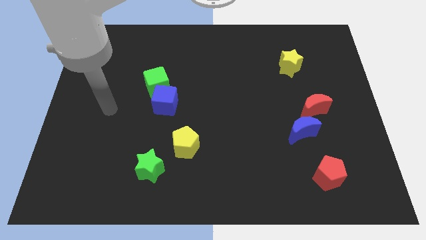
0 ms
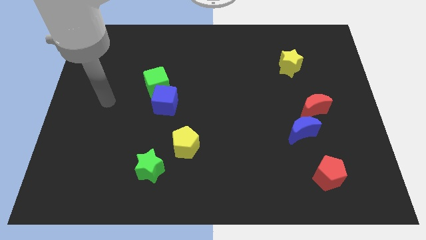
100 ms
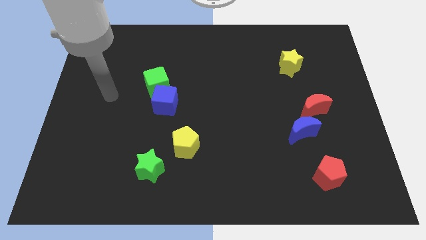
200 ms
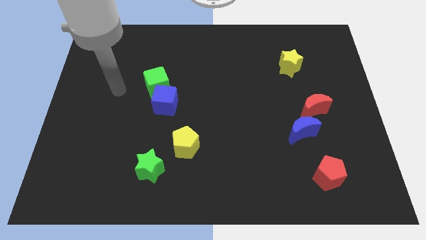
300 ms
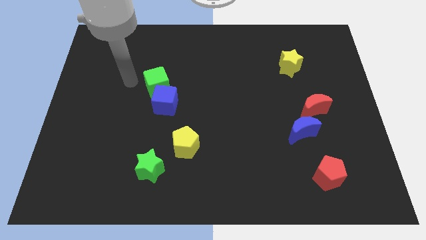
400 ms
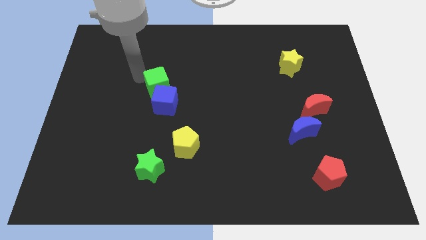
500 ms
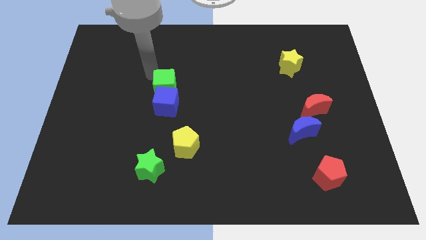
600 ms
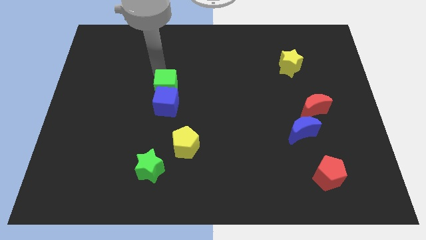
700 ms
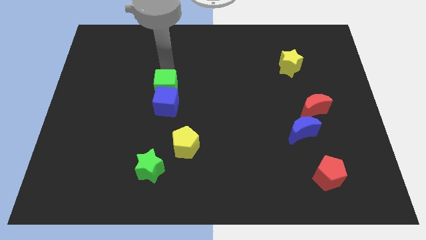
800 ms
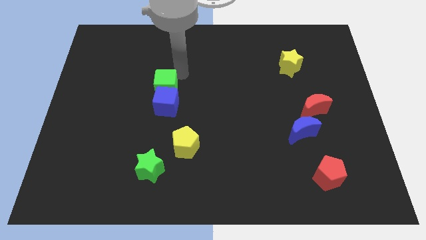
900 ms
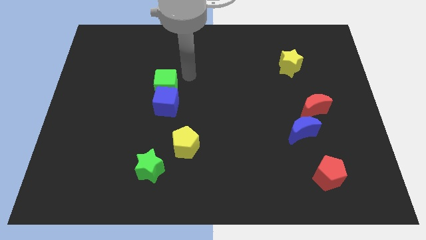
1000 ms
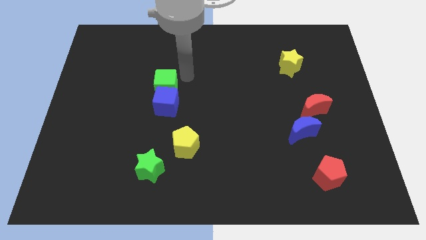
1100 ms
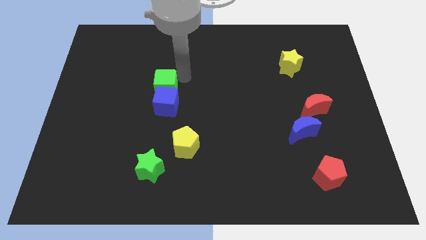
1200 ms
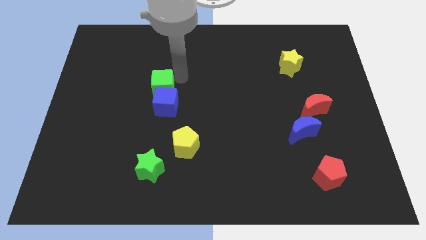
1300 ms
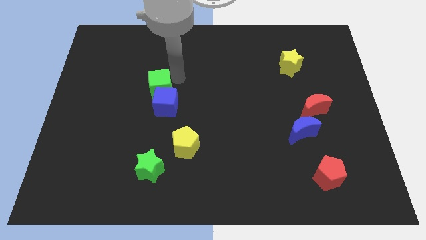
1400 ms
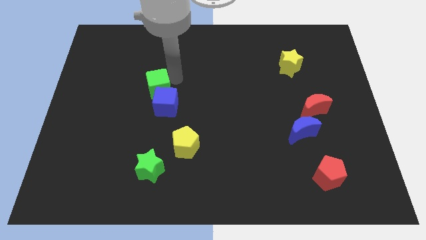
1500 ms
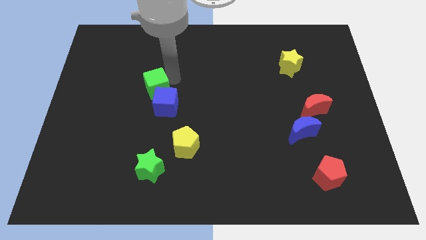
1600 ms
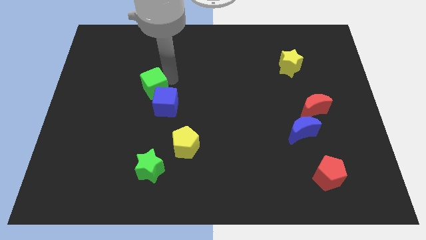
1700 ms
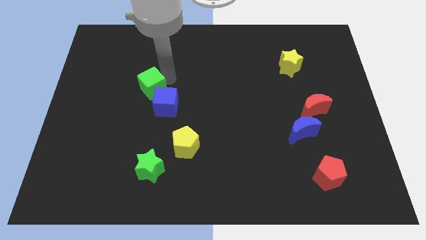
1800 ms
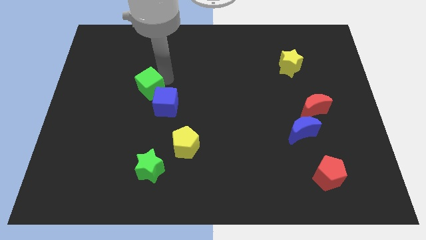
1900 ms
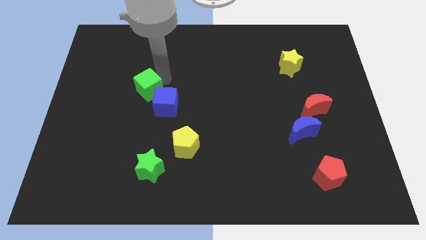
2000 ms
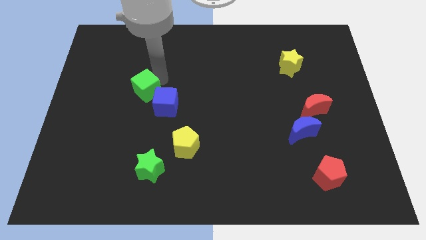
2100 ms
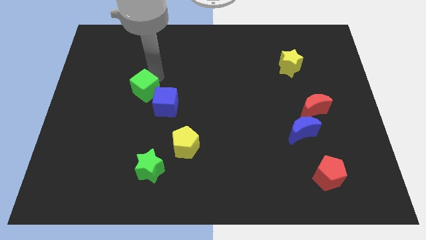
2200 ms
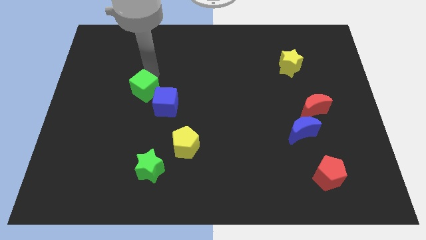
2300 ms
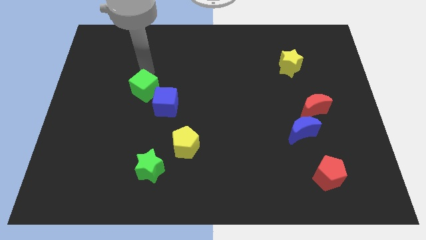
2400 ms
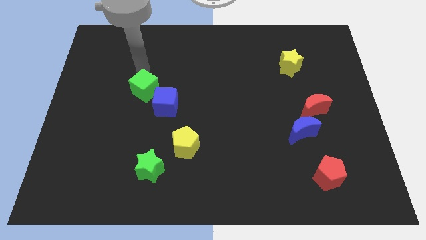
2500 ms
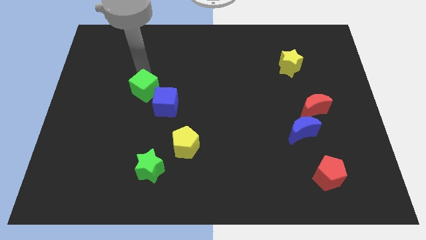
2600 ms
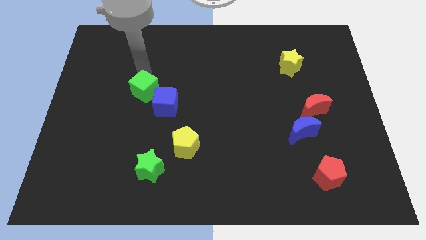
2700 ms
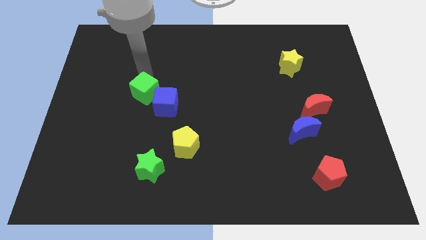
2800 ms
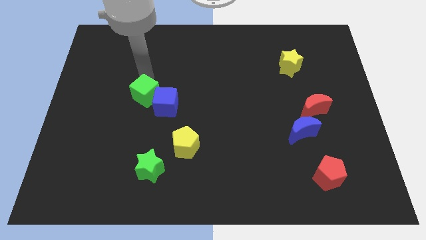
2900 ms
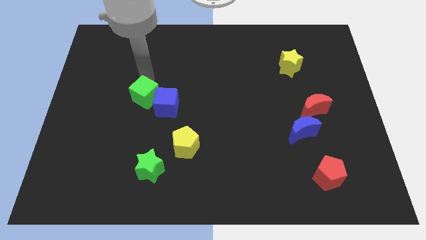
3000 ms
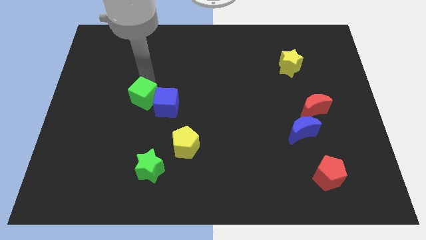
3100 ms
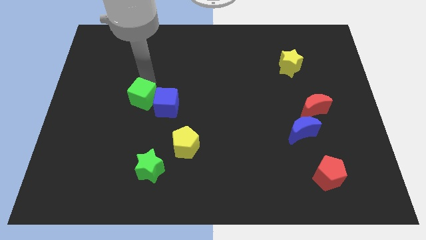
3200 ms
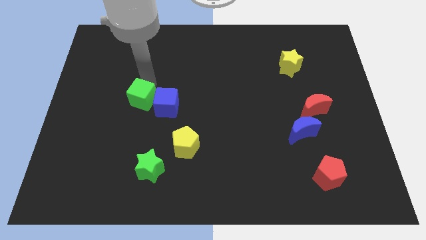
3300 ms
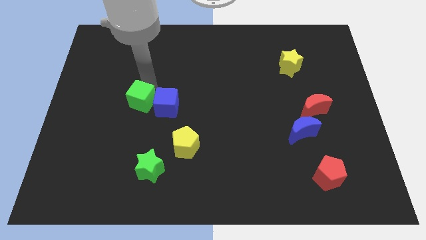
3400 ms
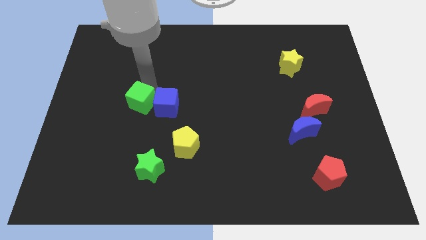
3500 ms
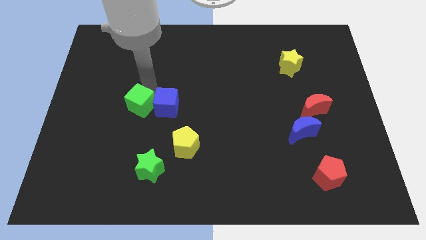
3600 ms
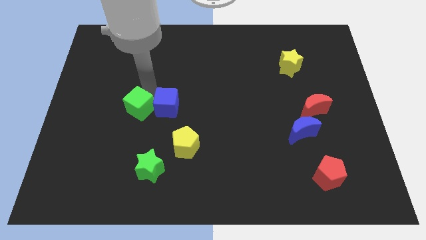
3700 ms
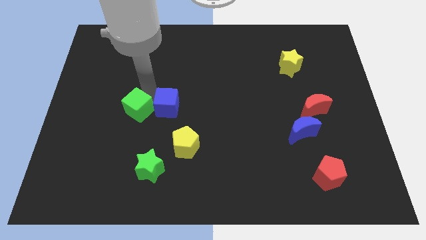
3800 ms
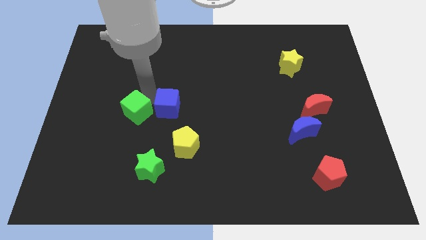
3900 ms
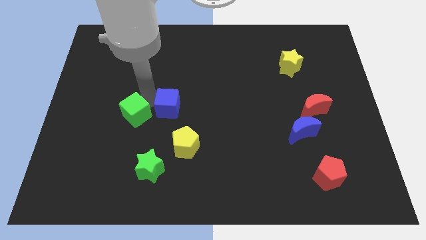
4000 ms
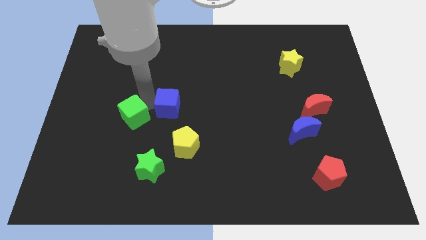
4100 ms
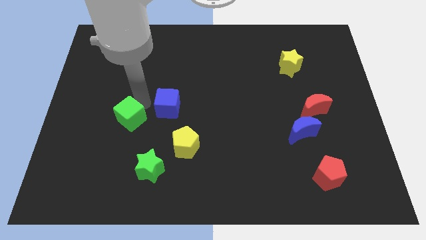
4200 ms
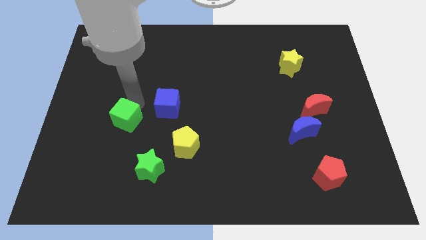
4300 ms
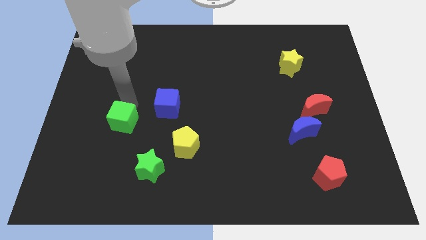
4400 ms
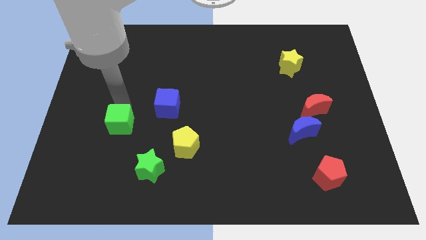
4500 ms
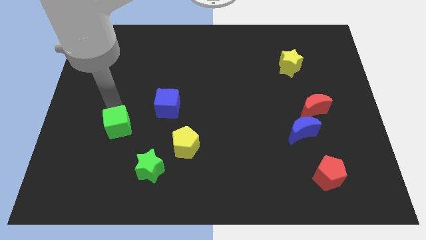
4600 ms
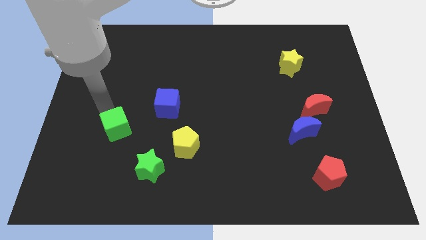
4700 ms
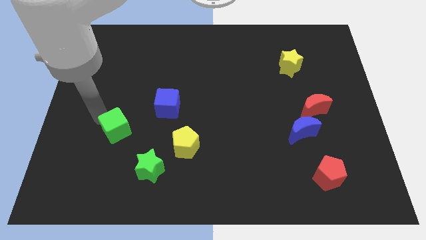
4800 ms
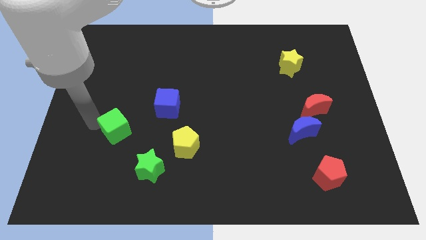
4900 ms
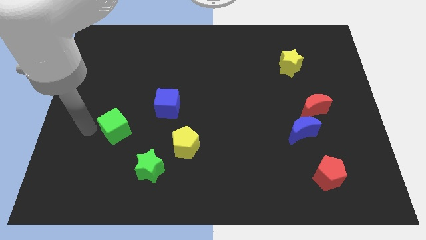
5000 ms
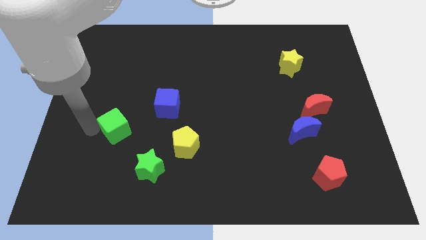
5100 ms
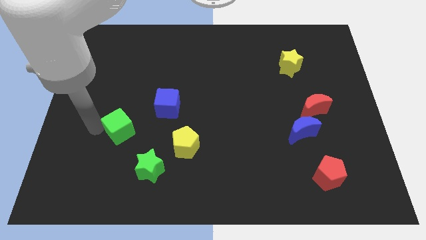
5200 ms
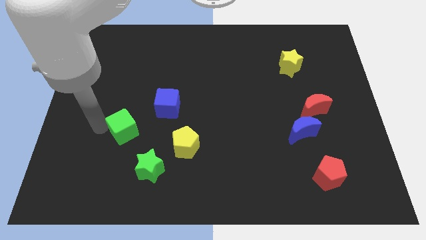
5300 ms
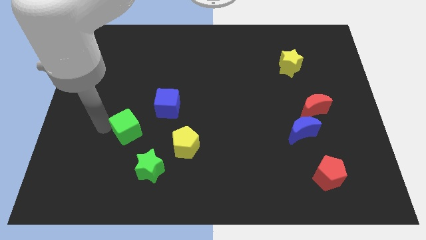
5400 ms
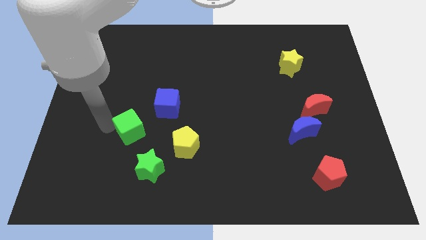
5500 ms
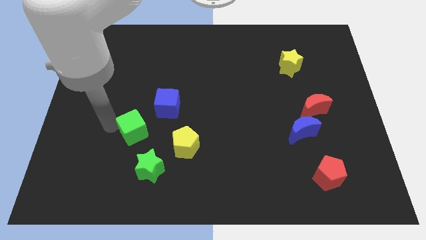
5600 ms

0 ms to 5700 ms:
move the green cube to the top side of the green star

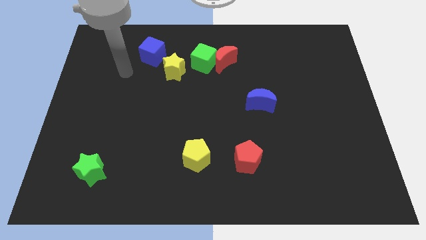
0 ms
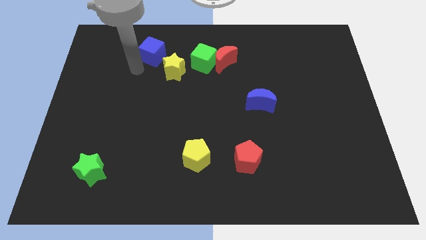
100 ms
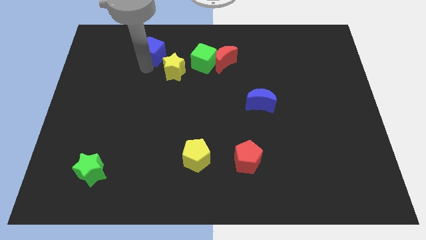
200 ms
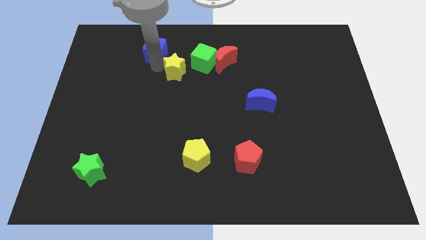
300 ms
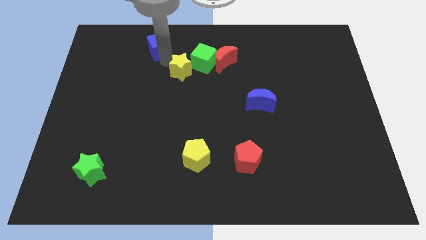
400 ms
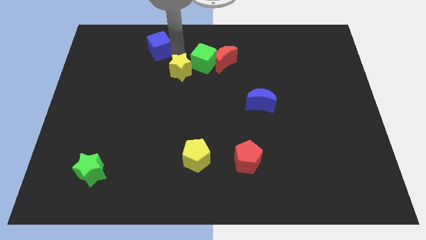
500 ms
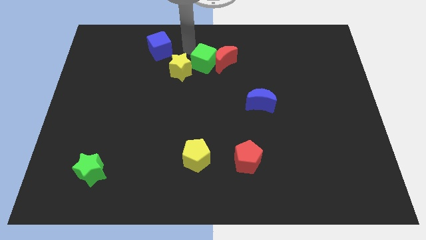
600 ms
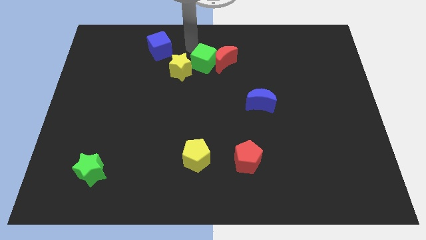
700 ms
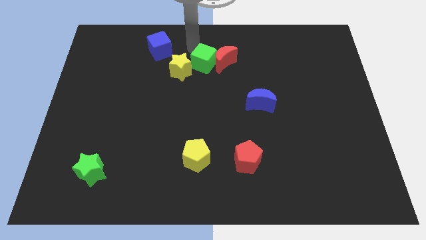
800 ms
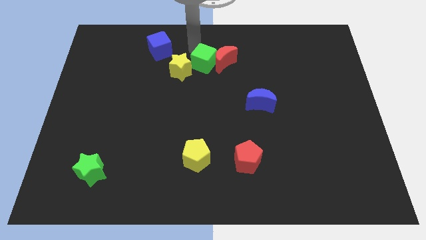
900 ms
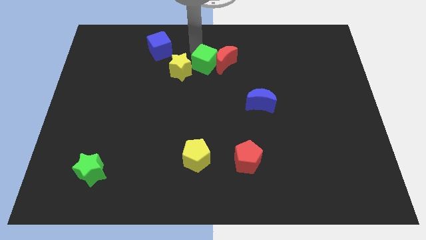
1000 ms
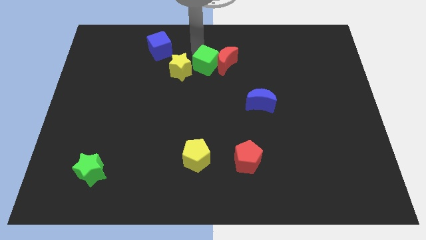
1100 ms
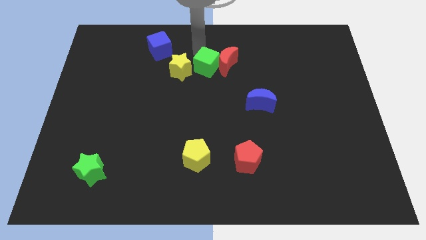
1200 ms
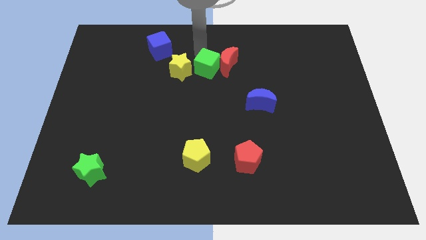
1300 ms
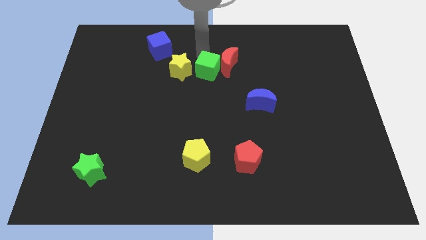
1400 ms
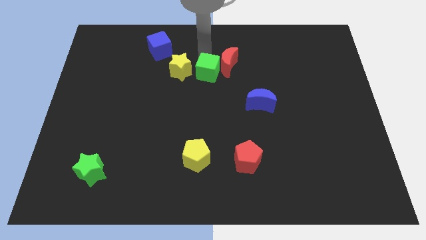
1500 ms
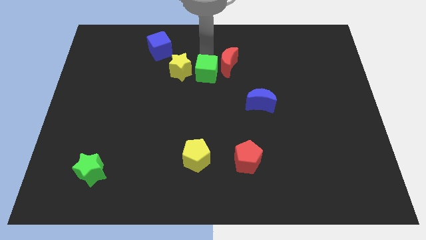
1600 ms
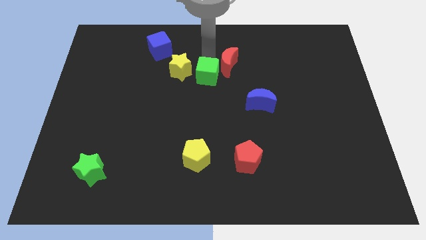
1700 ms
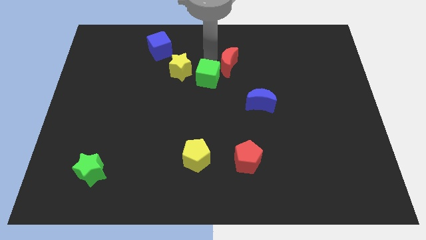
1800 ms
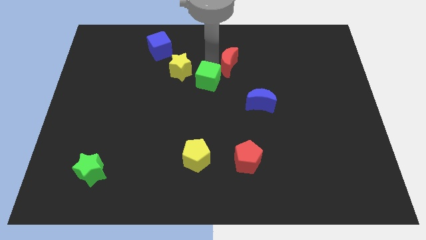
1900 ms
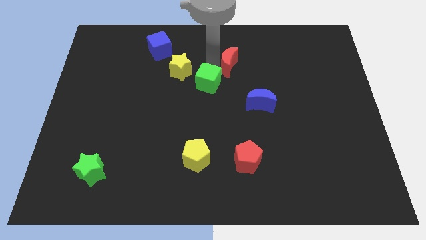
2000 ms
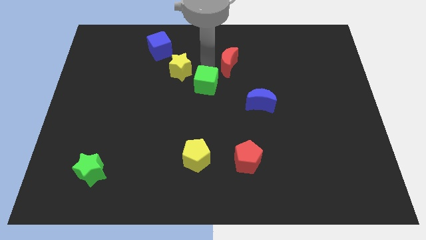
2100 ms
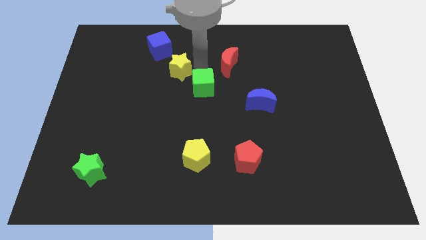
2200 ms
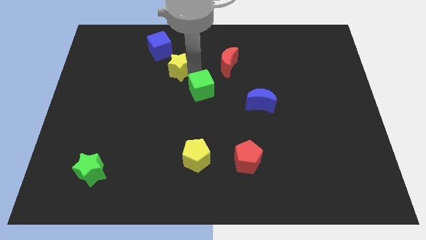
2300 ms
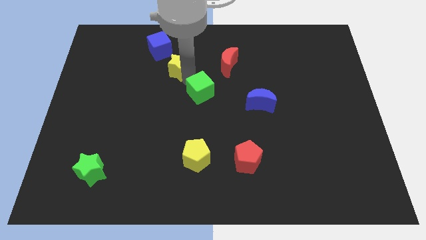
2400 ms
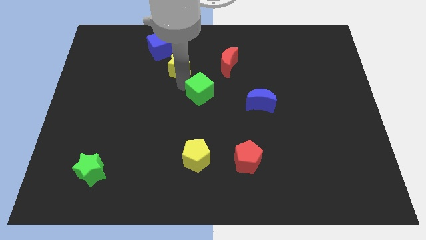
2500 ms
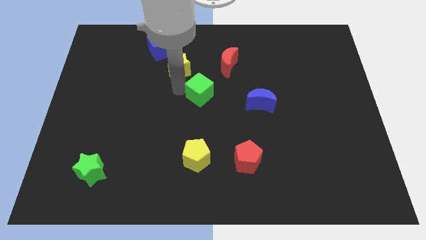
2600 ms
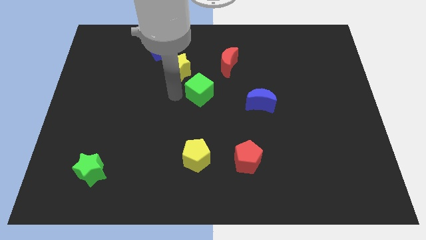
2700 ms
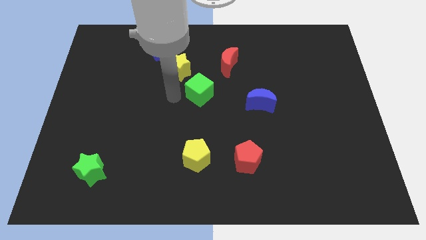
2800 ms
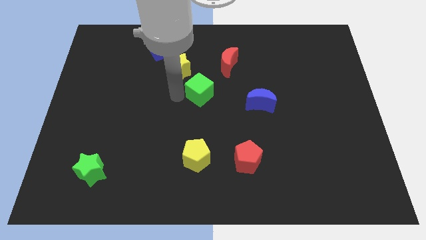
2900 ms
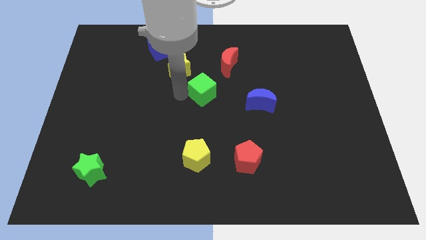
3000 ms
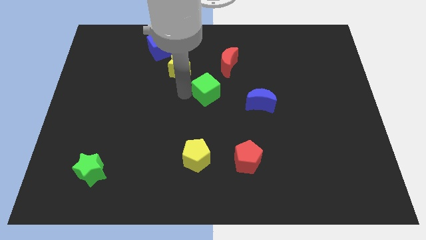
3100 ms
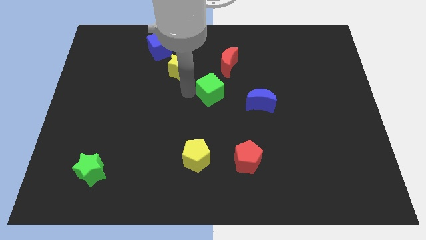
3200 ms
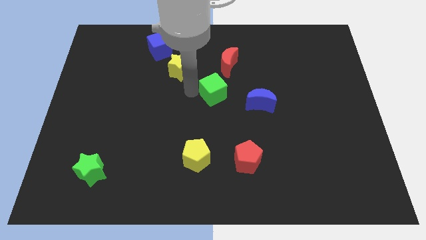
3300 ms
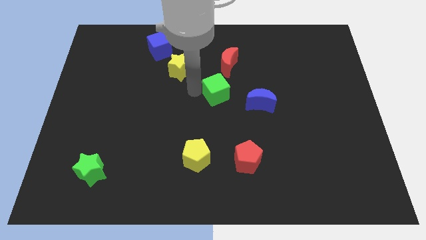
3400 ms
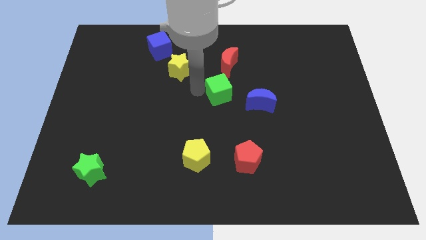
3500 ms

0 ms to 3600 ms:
push the green cube to the top left side of the blue moon
